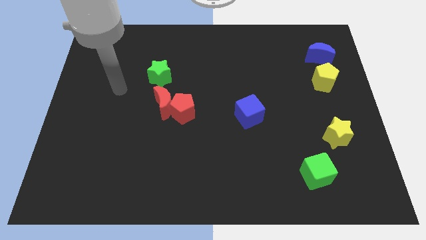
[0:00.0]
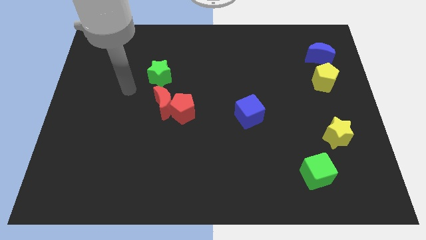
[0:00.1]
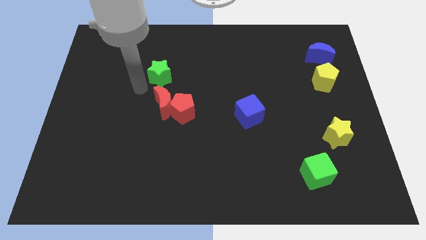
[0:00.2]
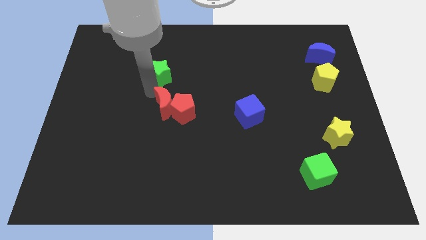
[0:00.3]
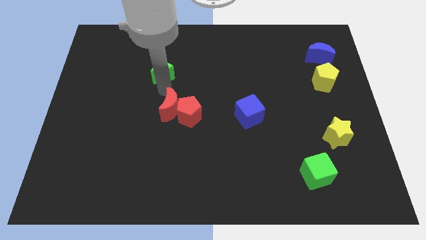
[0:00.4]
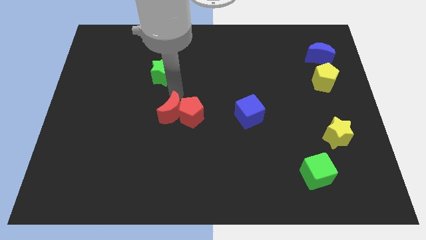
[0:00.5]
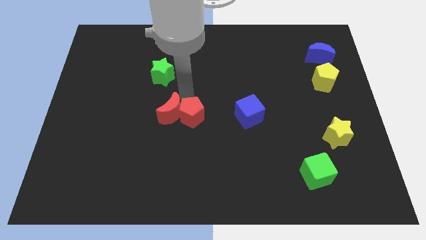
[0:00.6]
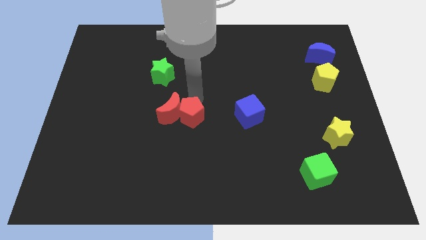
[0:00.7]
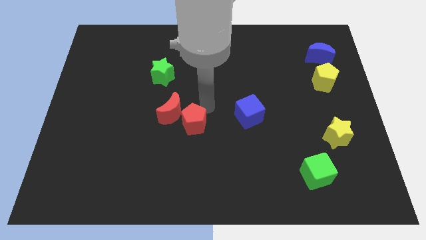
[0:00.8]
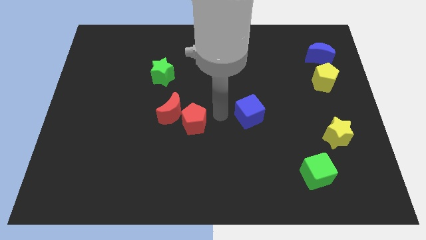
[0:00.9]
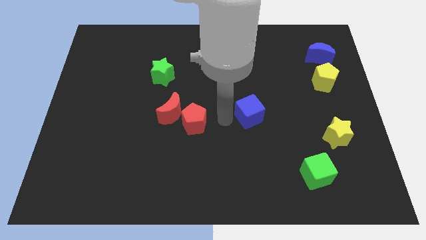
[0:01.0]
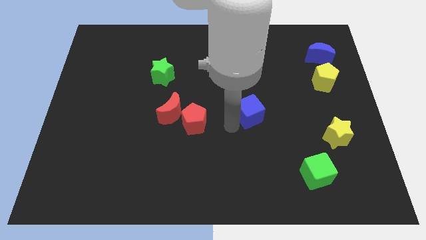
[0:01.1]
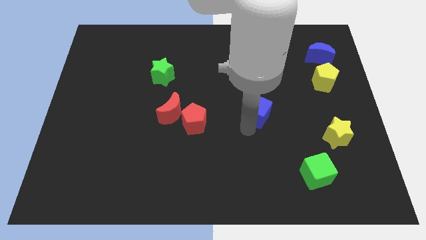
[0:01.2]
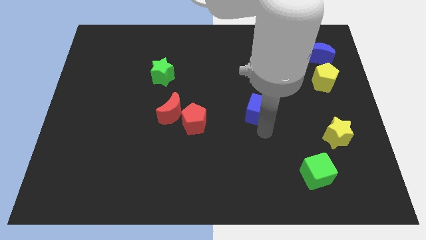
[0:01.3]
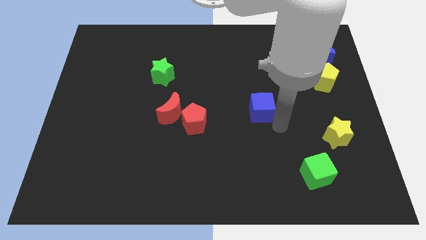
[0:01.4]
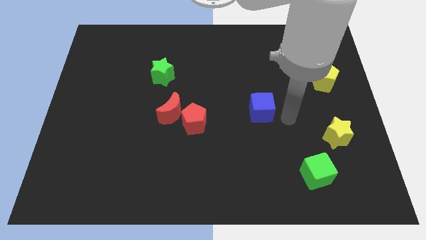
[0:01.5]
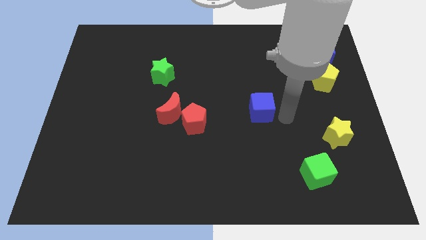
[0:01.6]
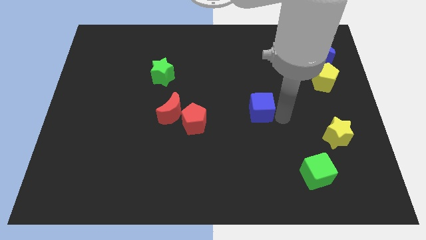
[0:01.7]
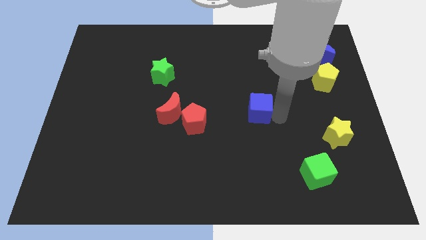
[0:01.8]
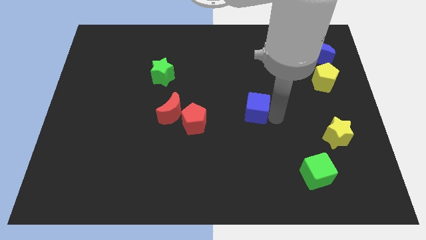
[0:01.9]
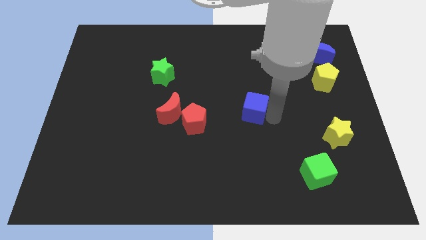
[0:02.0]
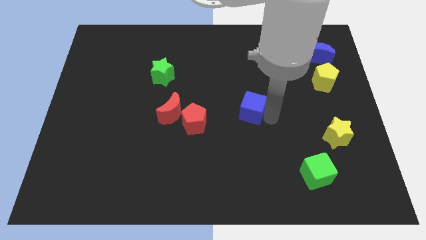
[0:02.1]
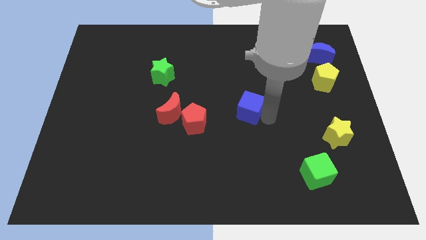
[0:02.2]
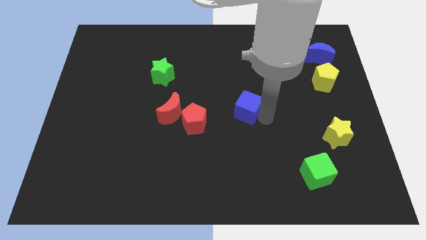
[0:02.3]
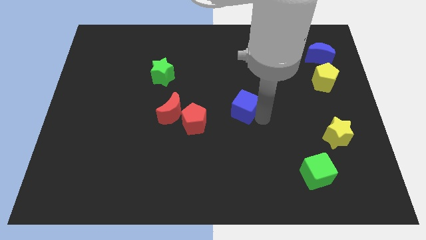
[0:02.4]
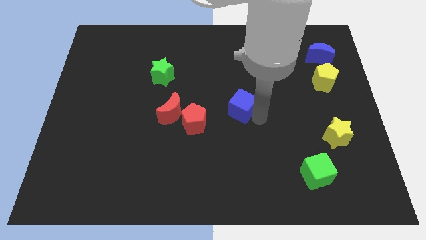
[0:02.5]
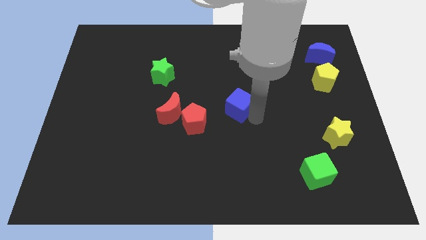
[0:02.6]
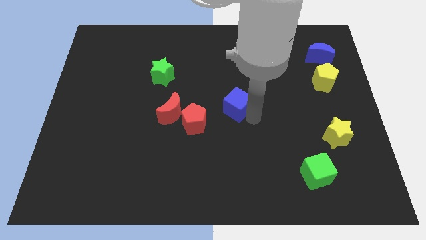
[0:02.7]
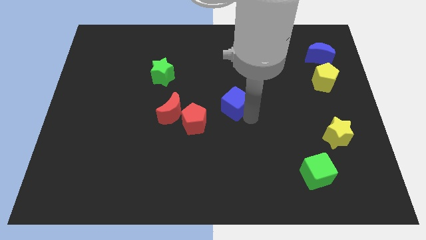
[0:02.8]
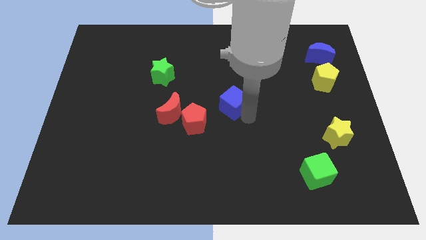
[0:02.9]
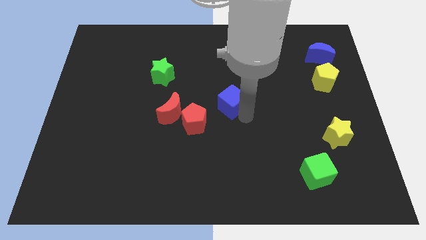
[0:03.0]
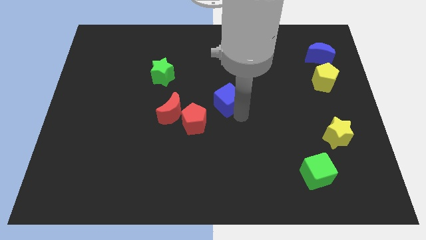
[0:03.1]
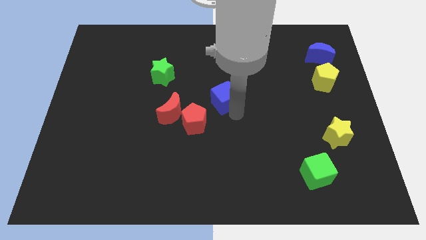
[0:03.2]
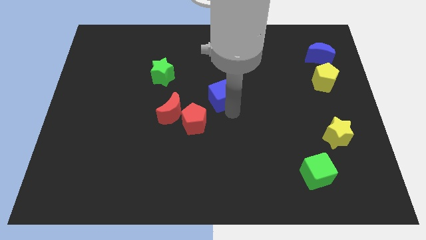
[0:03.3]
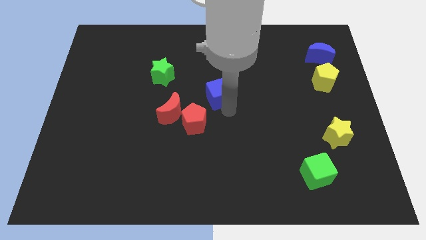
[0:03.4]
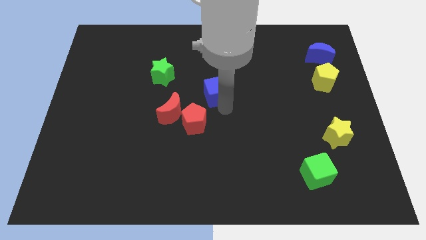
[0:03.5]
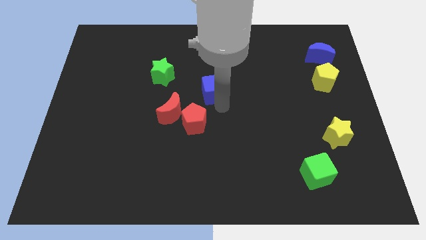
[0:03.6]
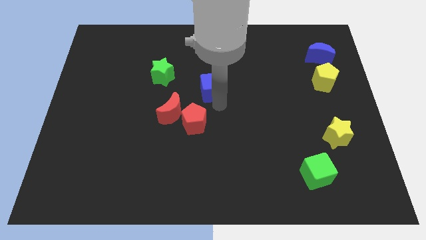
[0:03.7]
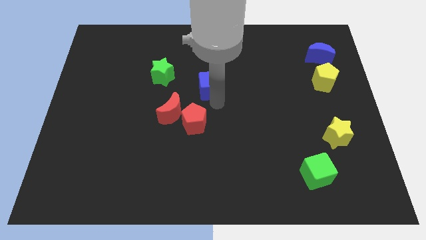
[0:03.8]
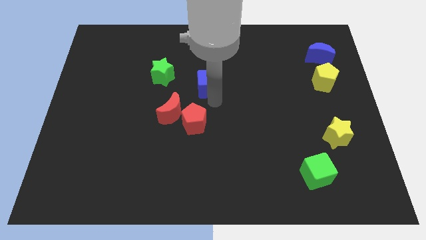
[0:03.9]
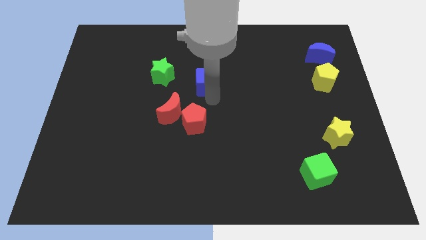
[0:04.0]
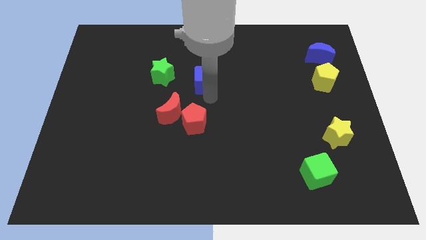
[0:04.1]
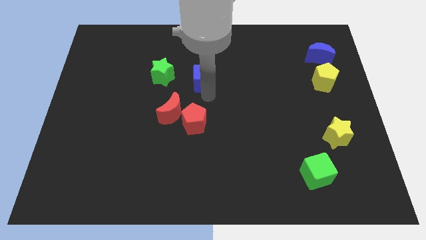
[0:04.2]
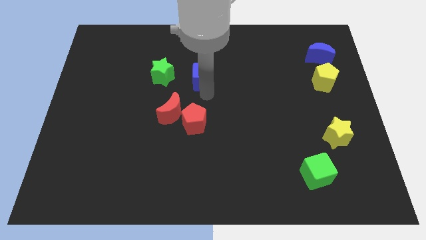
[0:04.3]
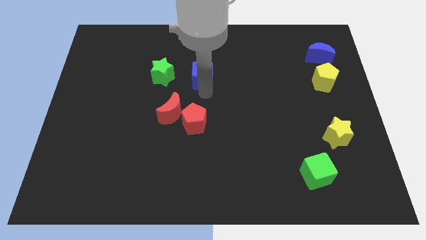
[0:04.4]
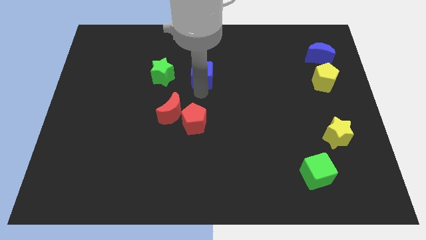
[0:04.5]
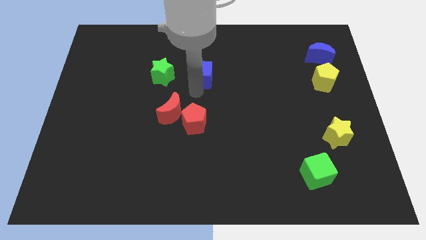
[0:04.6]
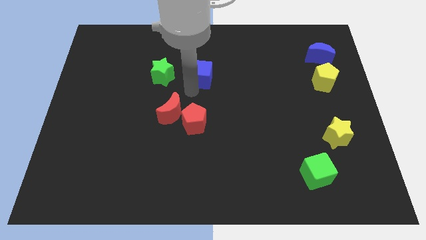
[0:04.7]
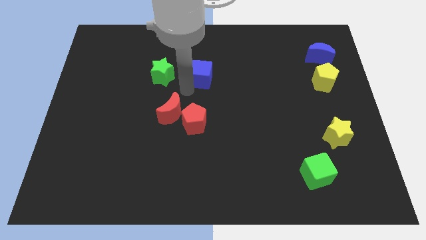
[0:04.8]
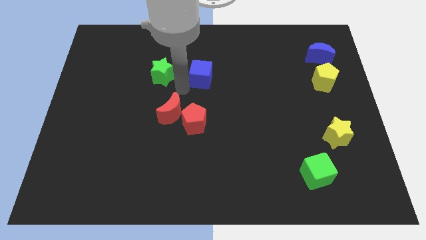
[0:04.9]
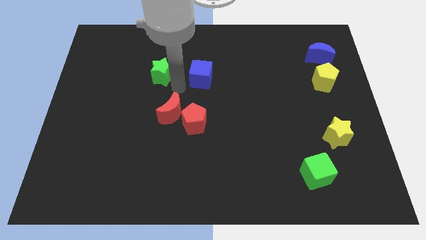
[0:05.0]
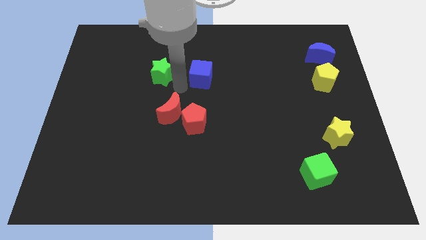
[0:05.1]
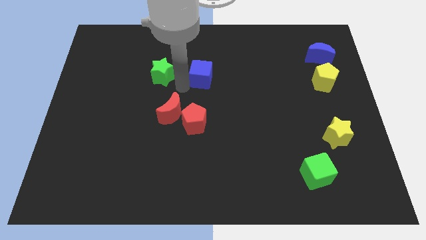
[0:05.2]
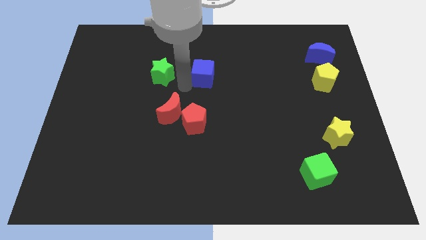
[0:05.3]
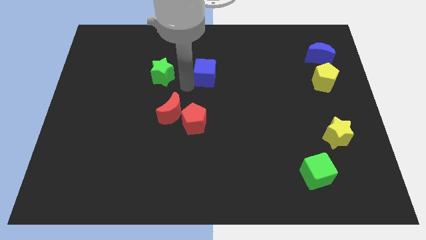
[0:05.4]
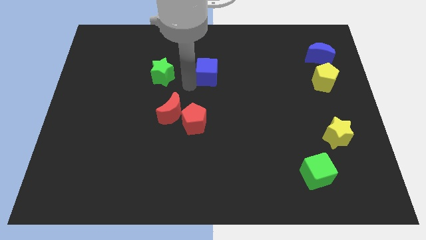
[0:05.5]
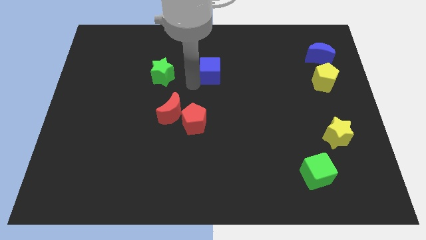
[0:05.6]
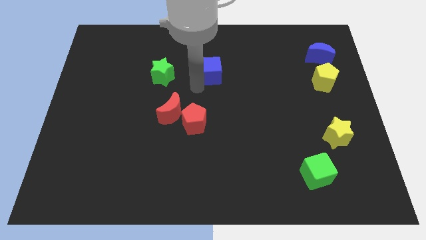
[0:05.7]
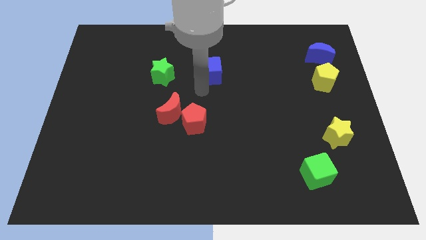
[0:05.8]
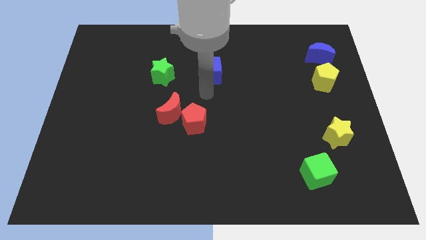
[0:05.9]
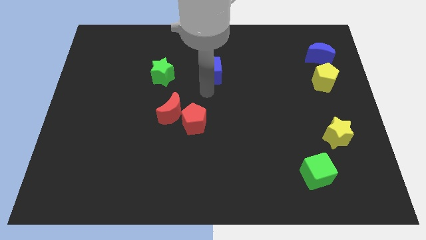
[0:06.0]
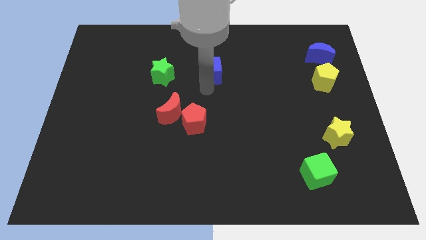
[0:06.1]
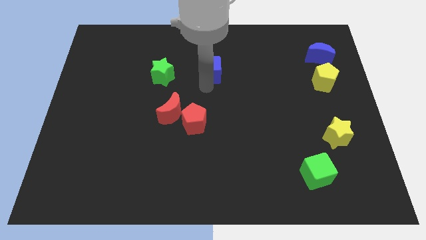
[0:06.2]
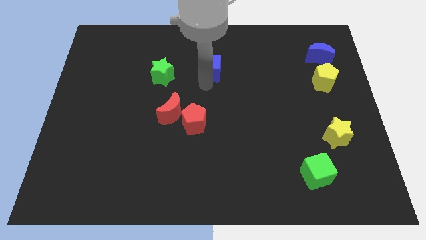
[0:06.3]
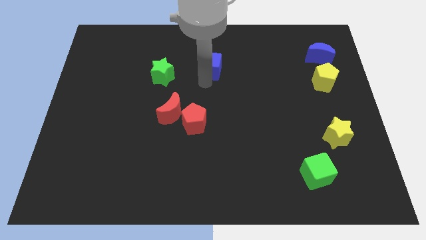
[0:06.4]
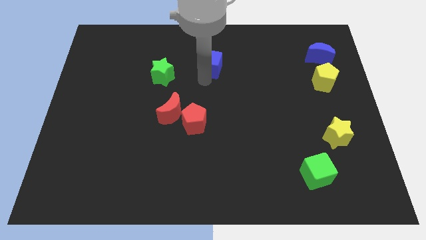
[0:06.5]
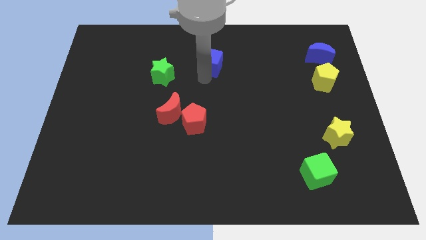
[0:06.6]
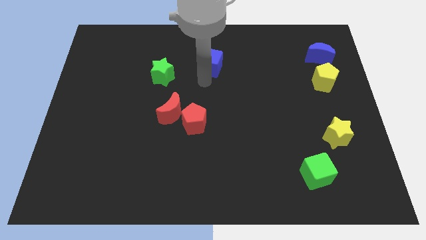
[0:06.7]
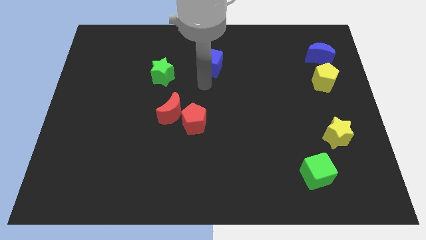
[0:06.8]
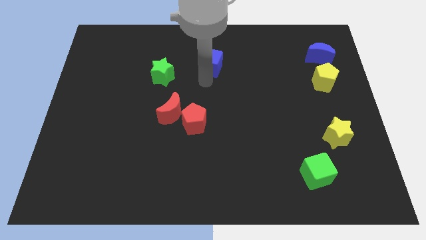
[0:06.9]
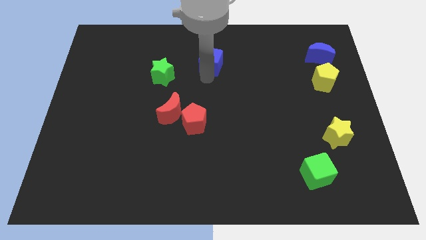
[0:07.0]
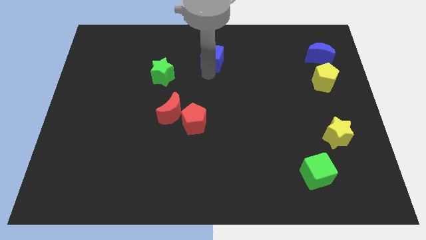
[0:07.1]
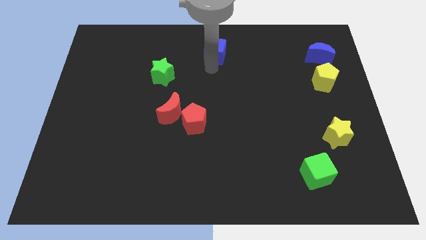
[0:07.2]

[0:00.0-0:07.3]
move the blue cube to the top side
